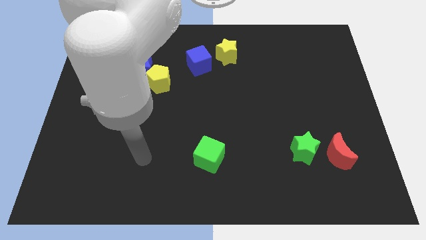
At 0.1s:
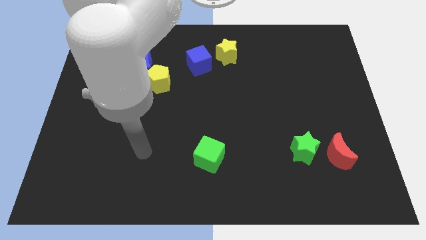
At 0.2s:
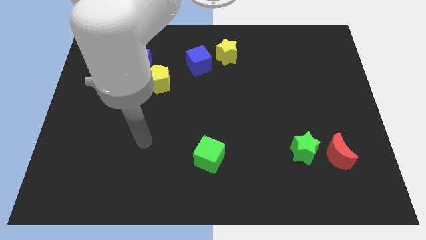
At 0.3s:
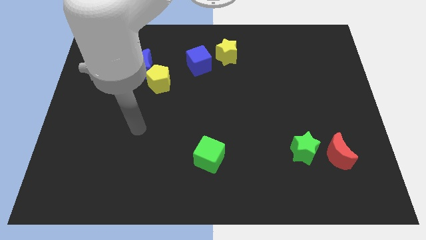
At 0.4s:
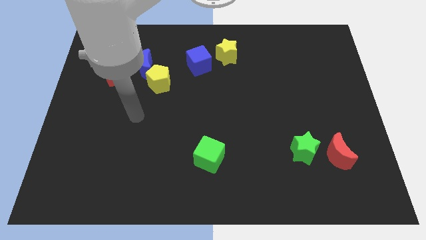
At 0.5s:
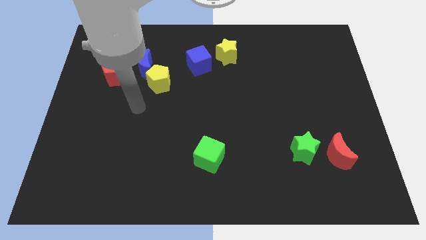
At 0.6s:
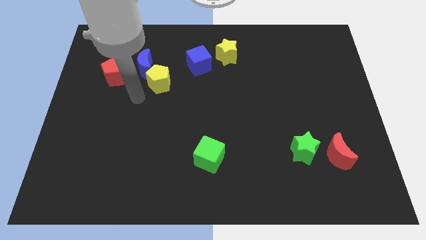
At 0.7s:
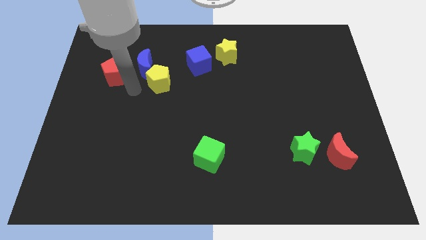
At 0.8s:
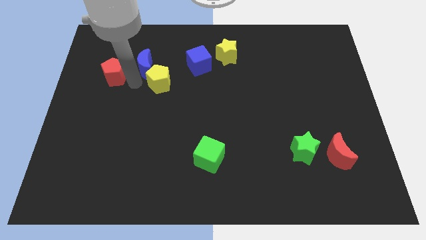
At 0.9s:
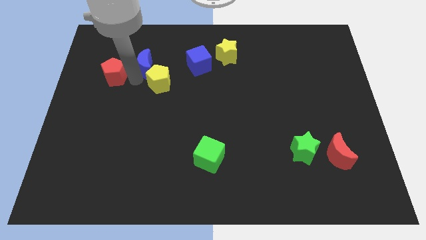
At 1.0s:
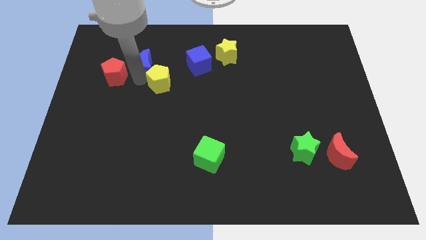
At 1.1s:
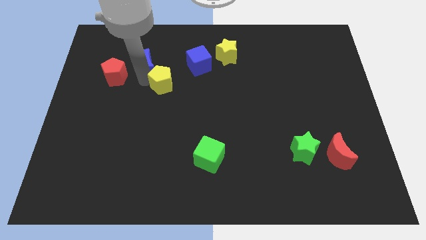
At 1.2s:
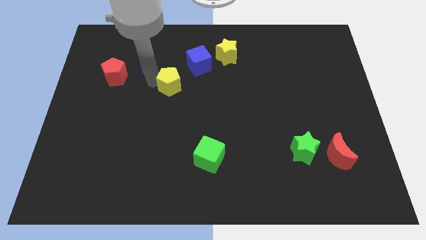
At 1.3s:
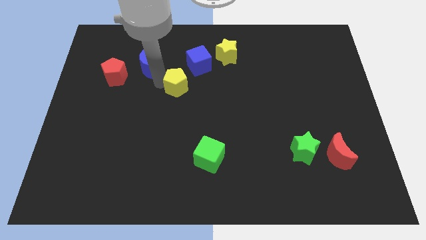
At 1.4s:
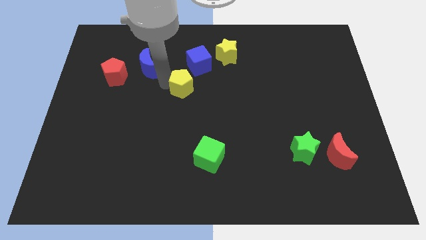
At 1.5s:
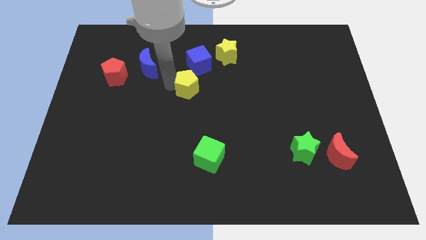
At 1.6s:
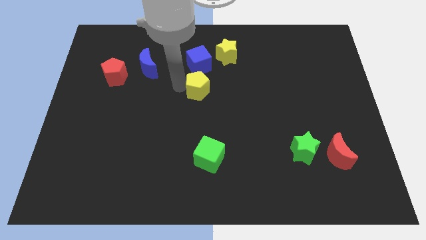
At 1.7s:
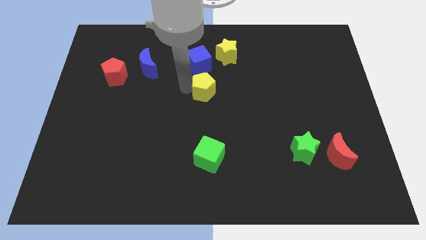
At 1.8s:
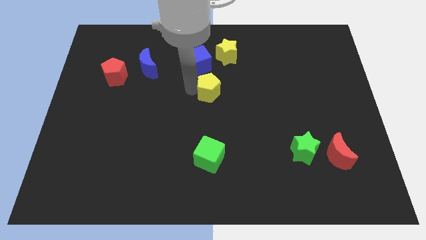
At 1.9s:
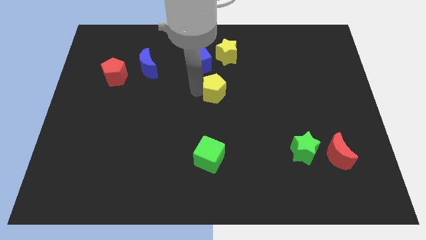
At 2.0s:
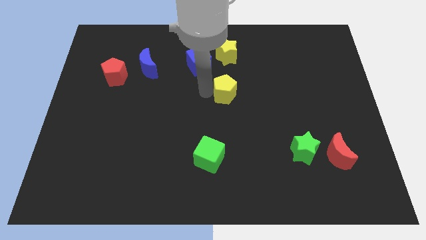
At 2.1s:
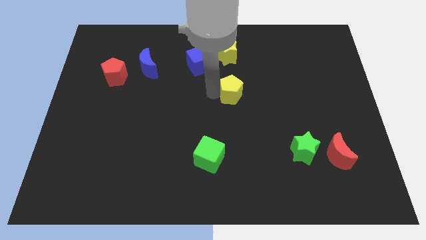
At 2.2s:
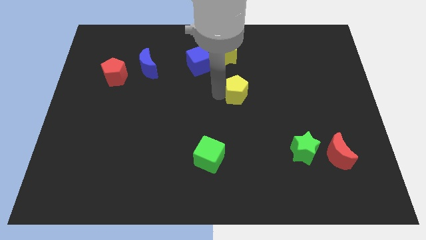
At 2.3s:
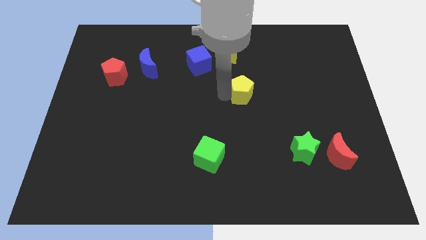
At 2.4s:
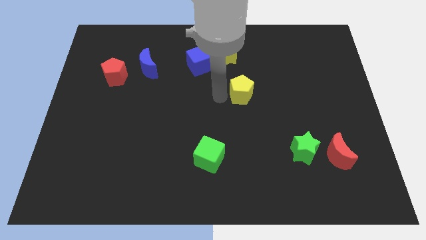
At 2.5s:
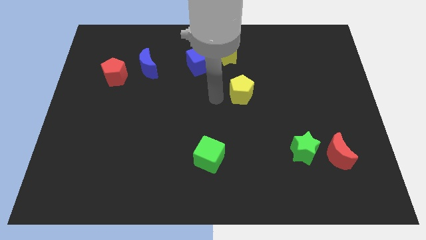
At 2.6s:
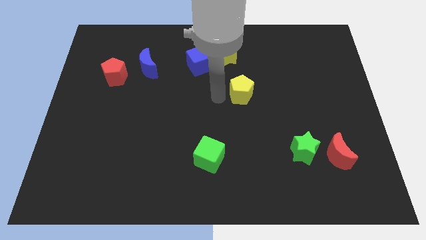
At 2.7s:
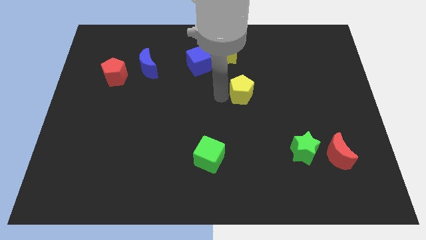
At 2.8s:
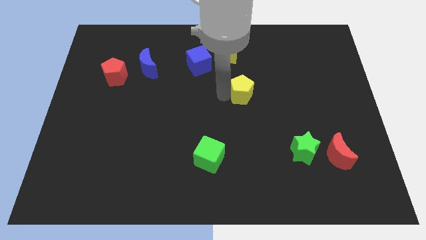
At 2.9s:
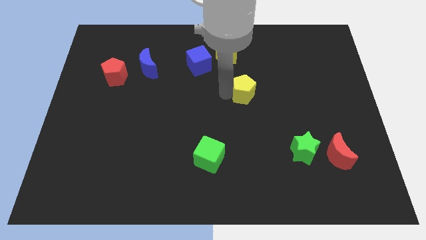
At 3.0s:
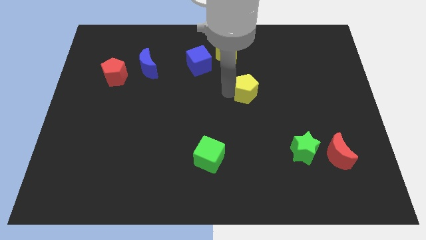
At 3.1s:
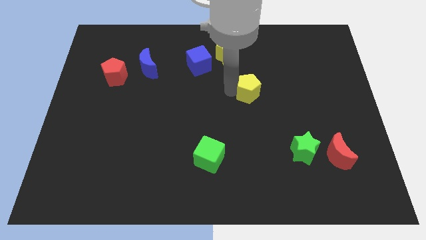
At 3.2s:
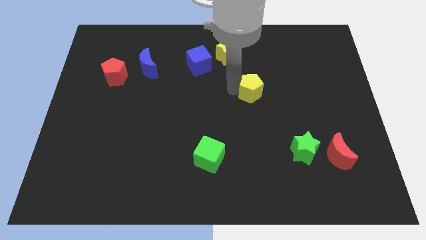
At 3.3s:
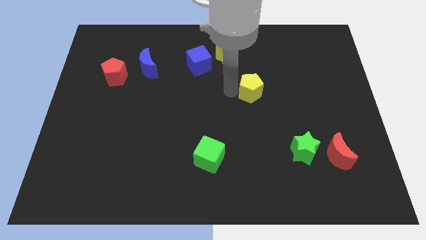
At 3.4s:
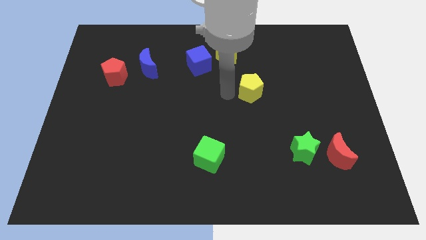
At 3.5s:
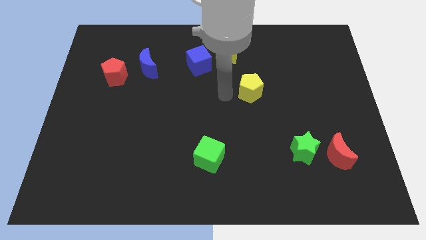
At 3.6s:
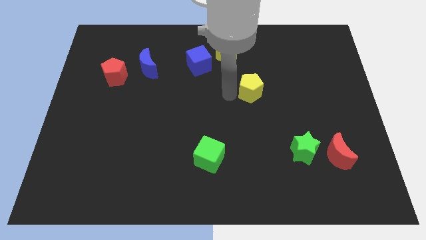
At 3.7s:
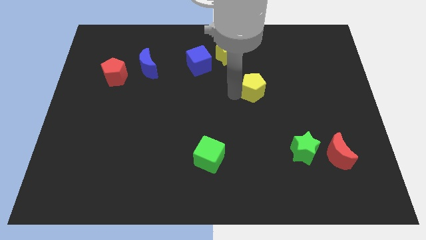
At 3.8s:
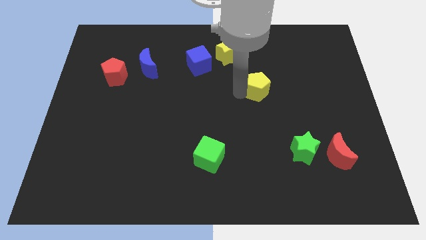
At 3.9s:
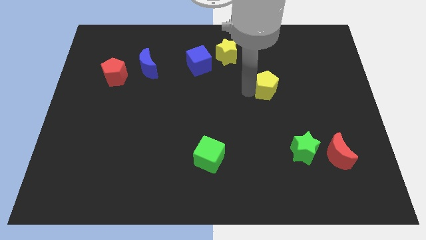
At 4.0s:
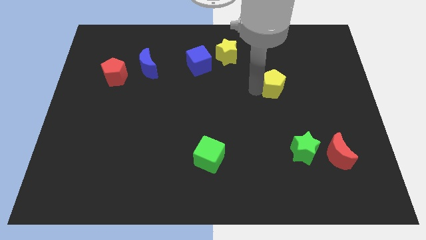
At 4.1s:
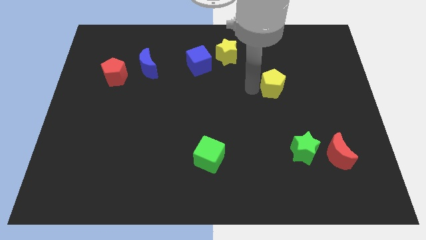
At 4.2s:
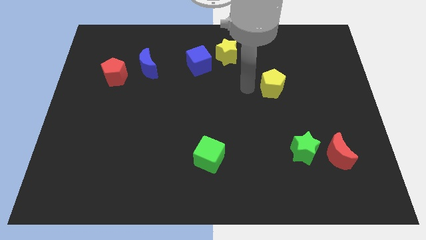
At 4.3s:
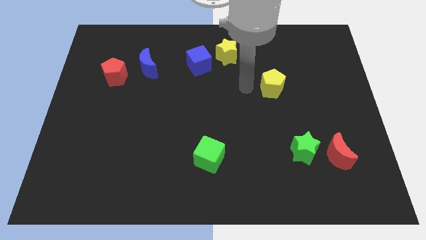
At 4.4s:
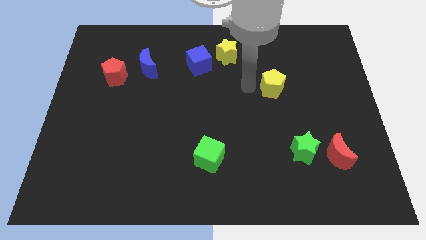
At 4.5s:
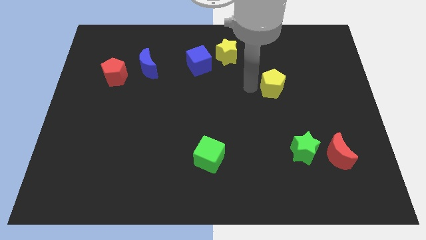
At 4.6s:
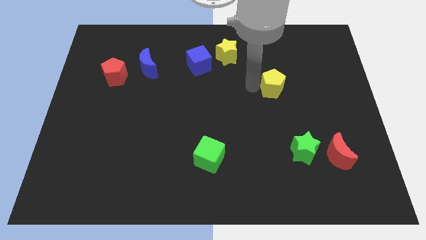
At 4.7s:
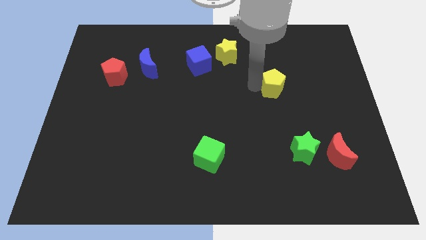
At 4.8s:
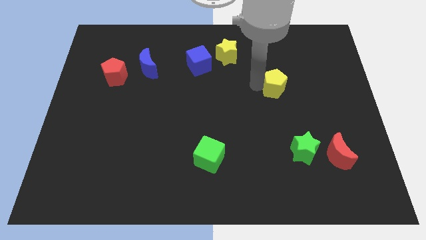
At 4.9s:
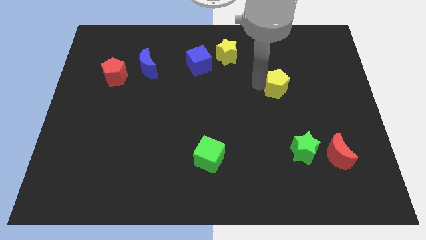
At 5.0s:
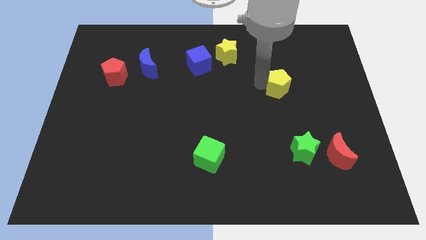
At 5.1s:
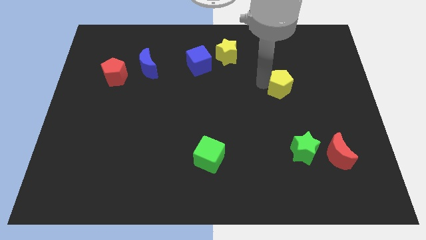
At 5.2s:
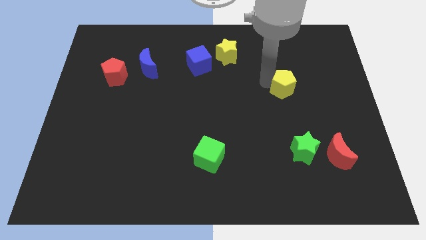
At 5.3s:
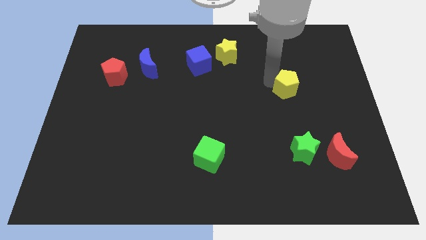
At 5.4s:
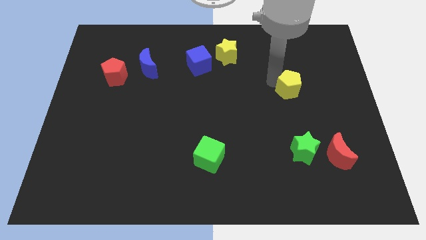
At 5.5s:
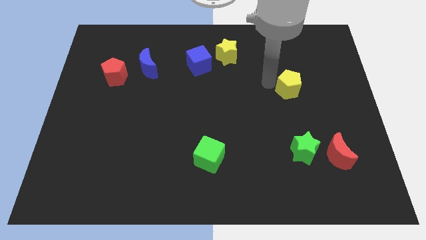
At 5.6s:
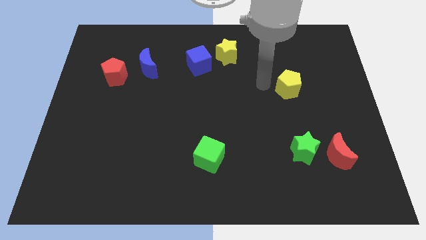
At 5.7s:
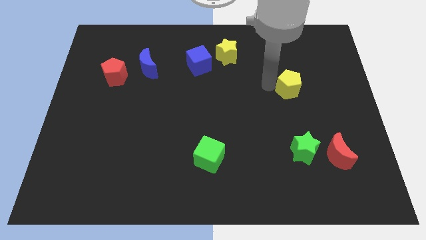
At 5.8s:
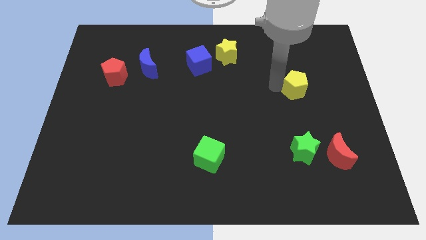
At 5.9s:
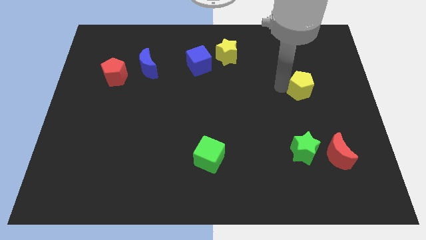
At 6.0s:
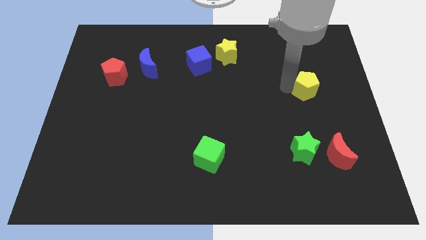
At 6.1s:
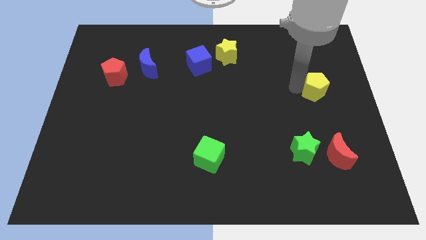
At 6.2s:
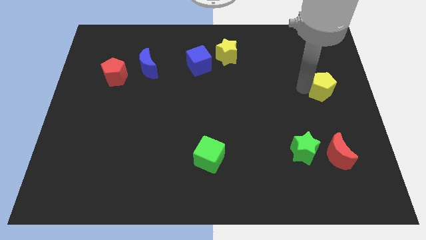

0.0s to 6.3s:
move the yellow pentagon to the right side of the board
